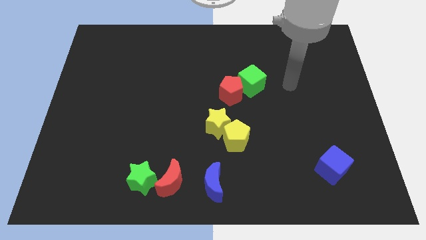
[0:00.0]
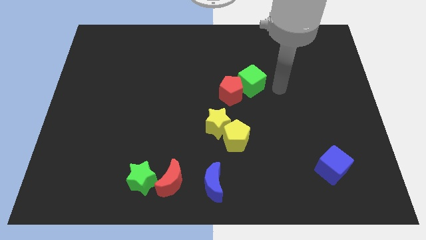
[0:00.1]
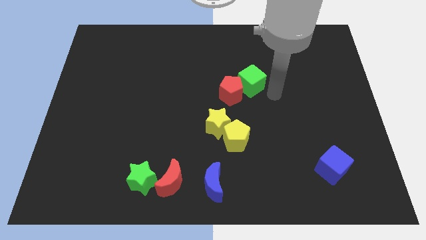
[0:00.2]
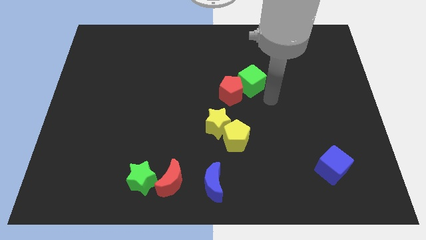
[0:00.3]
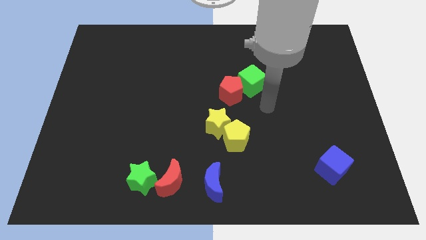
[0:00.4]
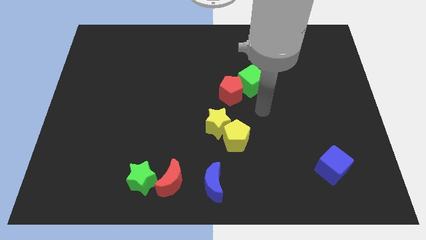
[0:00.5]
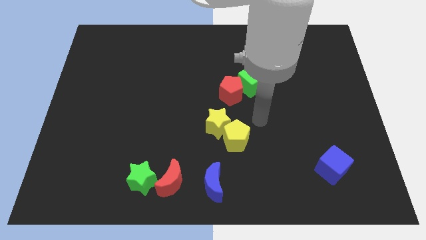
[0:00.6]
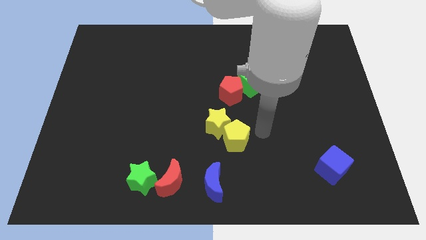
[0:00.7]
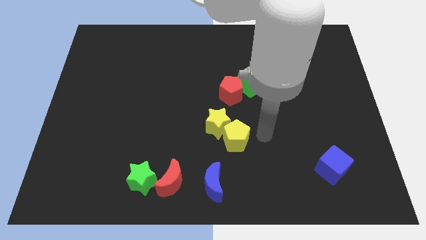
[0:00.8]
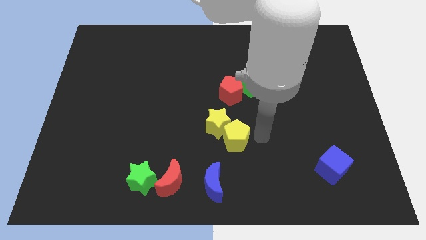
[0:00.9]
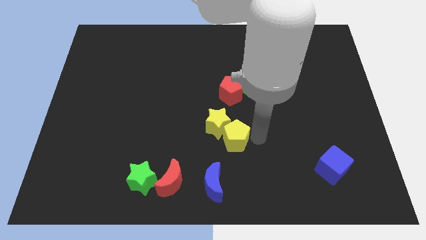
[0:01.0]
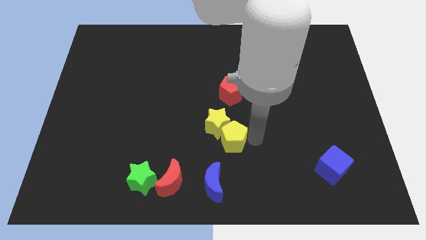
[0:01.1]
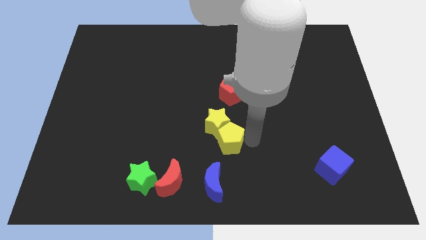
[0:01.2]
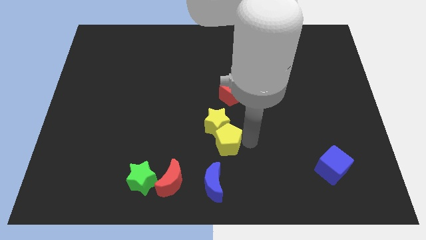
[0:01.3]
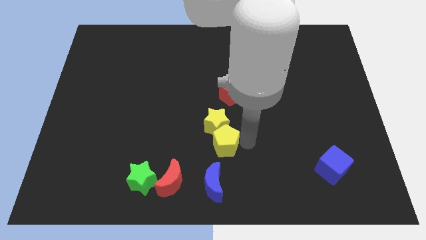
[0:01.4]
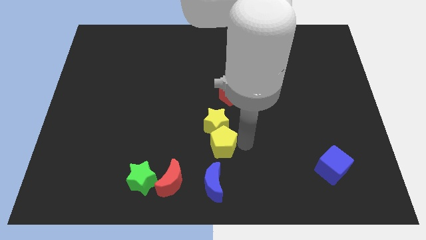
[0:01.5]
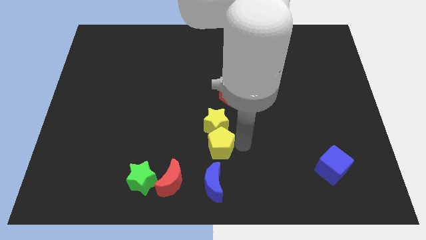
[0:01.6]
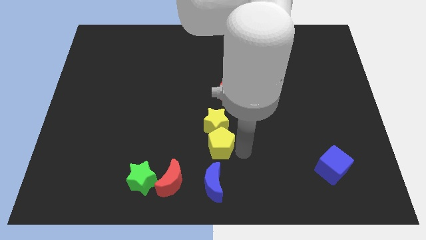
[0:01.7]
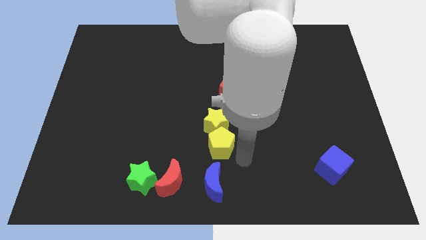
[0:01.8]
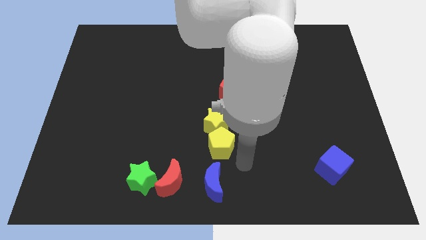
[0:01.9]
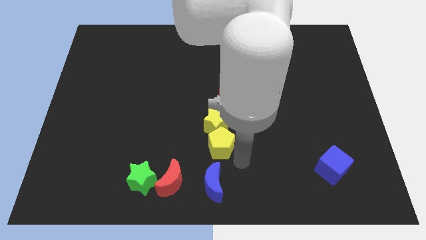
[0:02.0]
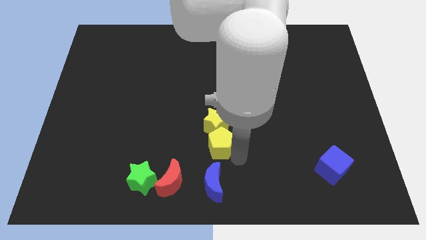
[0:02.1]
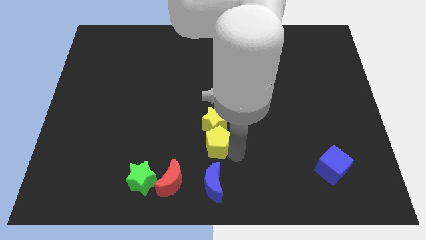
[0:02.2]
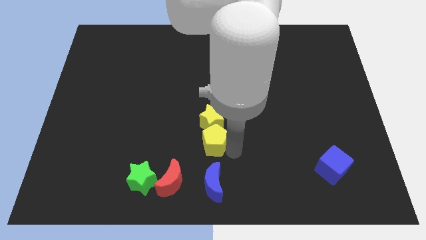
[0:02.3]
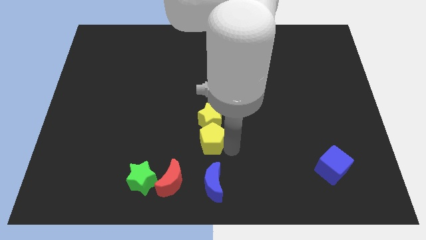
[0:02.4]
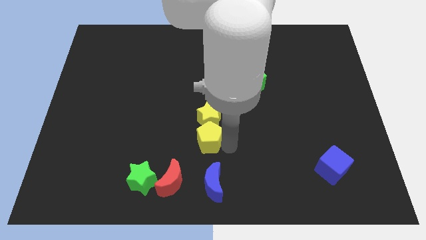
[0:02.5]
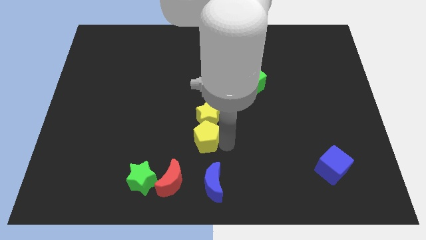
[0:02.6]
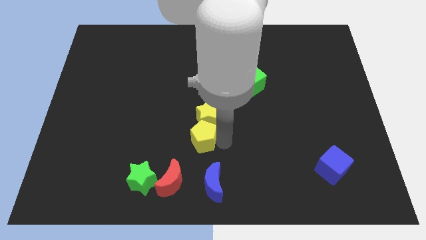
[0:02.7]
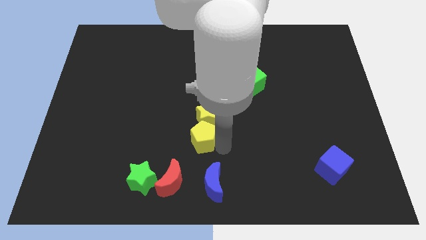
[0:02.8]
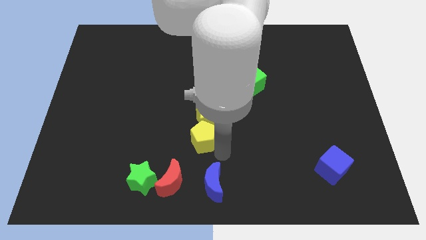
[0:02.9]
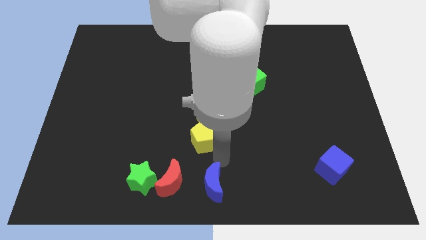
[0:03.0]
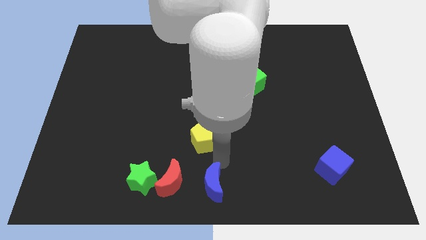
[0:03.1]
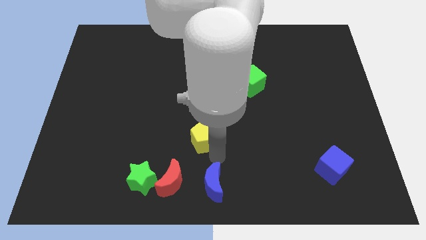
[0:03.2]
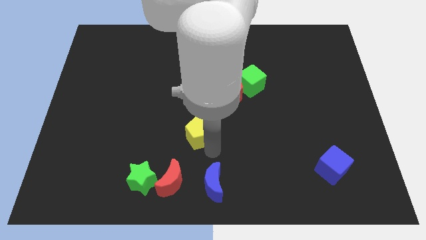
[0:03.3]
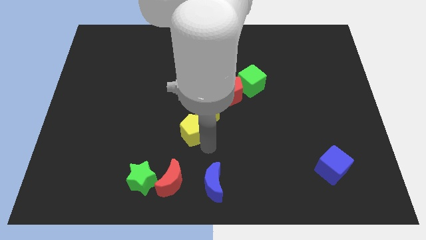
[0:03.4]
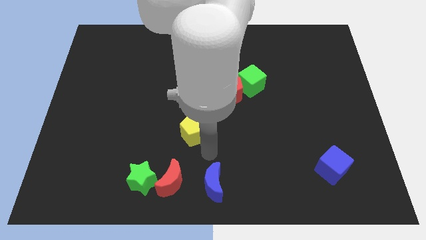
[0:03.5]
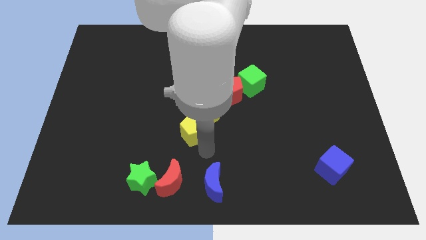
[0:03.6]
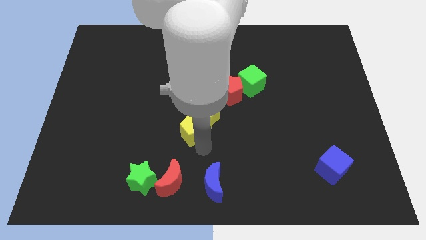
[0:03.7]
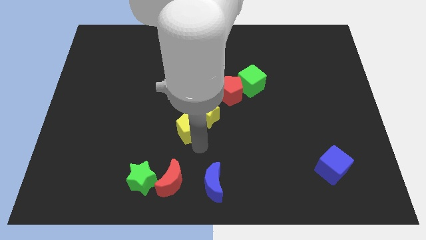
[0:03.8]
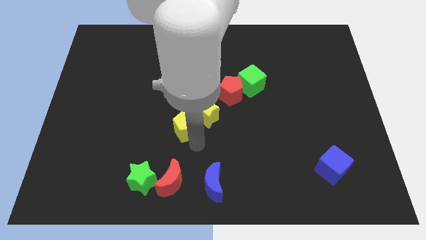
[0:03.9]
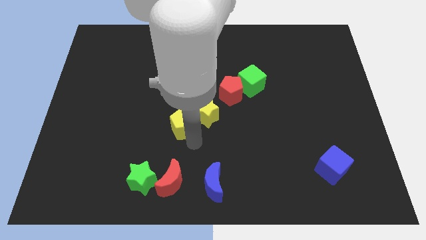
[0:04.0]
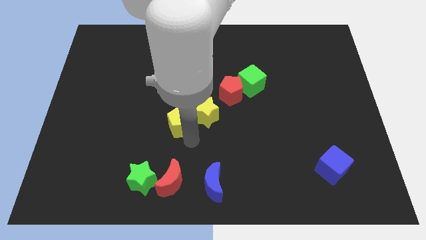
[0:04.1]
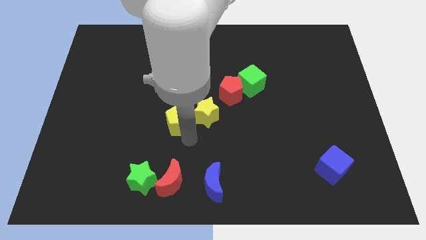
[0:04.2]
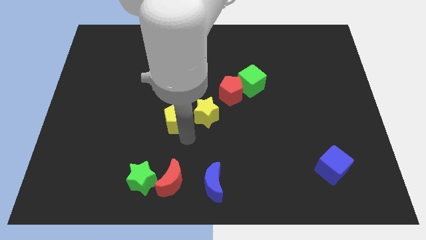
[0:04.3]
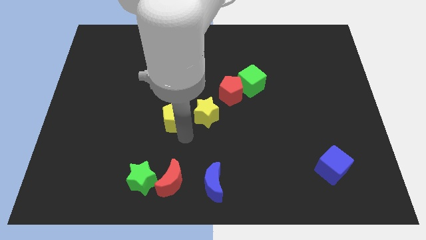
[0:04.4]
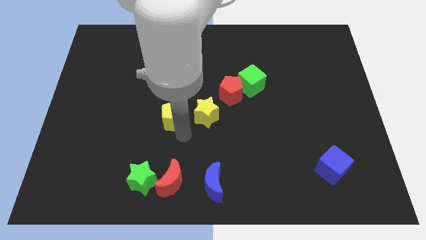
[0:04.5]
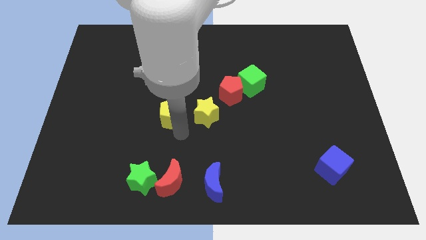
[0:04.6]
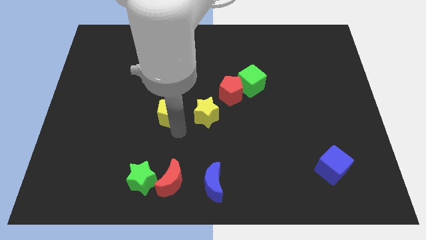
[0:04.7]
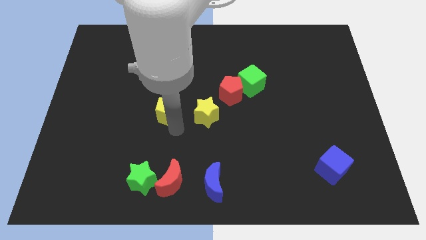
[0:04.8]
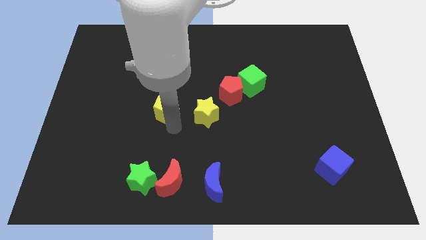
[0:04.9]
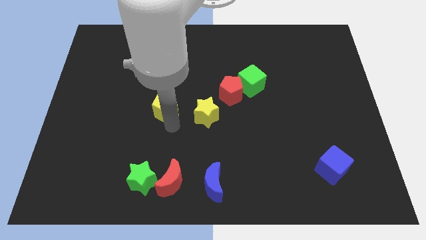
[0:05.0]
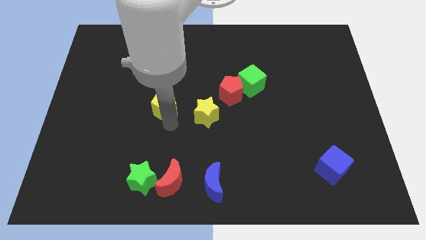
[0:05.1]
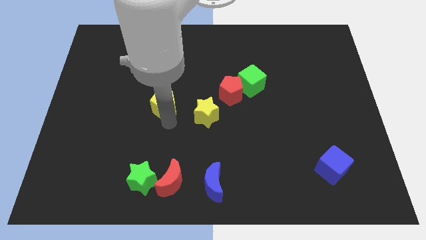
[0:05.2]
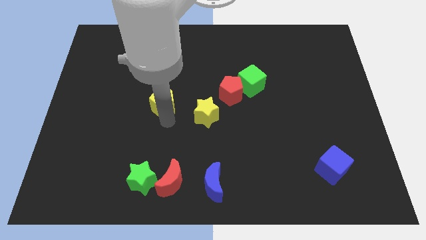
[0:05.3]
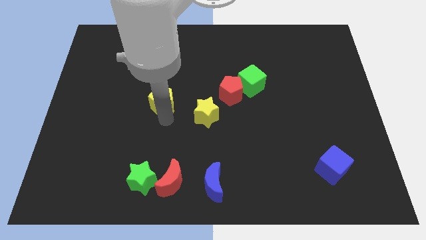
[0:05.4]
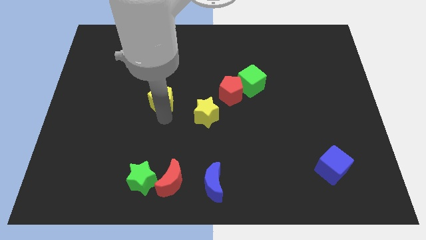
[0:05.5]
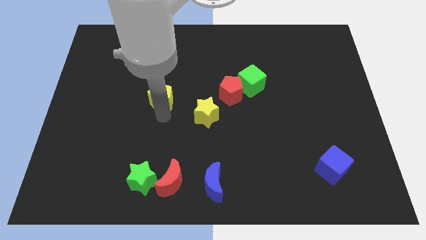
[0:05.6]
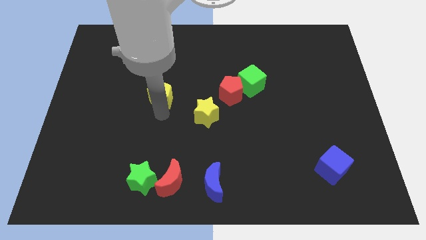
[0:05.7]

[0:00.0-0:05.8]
slide the yellow pentagon diagonally upwards and left

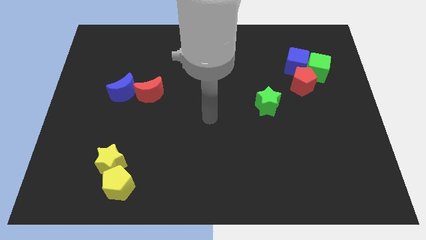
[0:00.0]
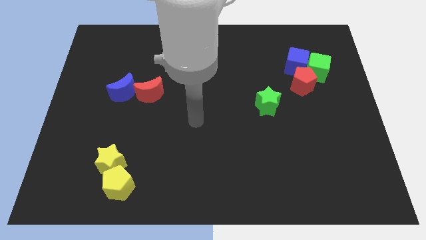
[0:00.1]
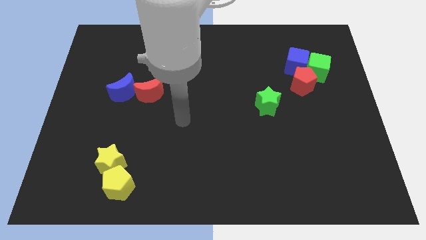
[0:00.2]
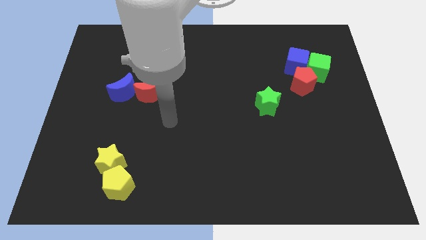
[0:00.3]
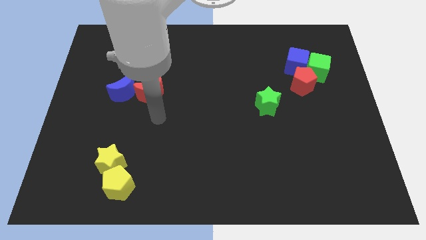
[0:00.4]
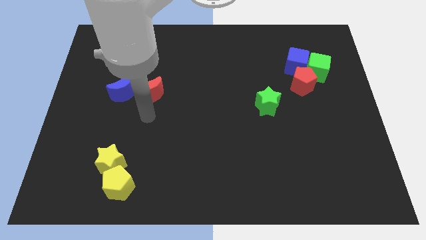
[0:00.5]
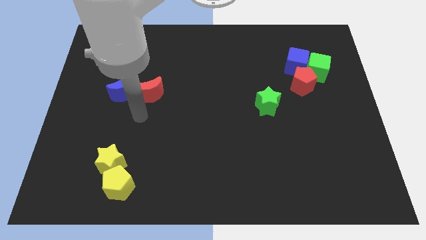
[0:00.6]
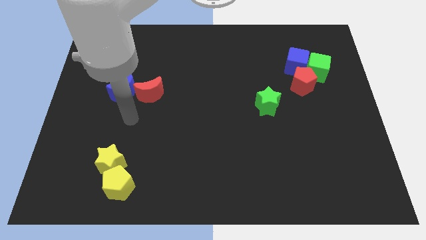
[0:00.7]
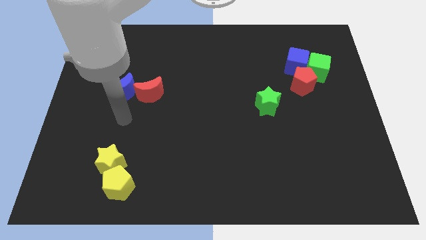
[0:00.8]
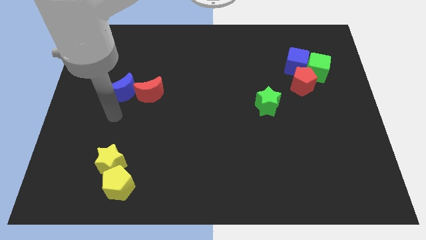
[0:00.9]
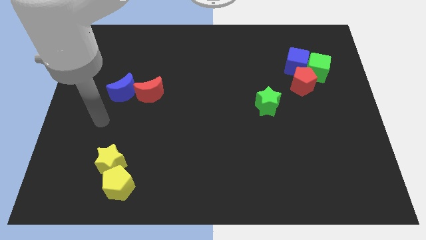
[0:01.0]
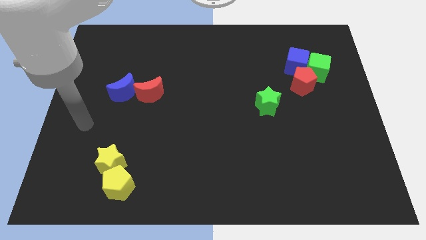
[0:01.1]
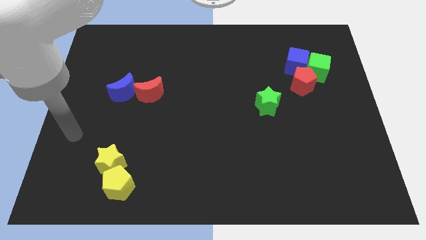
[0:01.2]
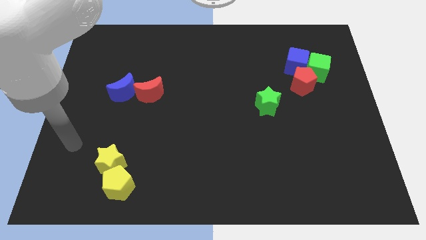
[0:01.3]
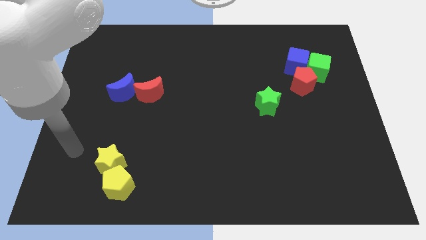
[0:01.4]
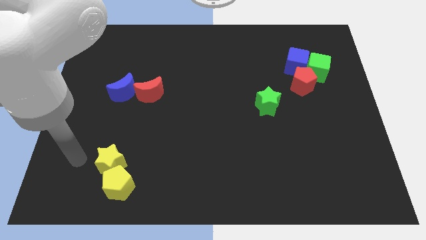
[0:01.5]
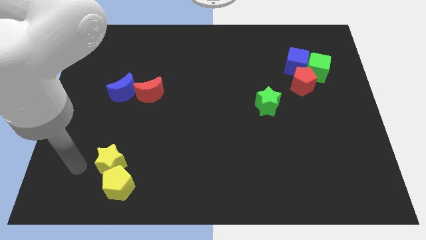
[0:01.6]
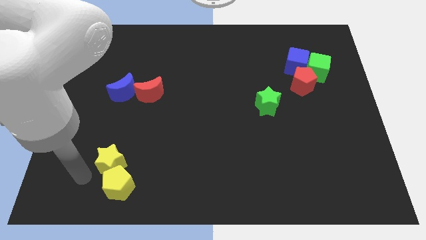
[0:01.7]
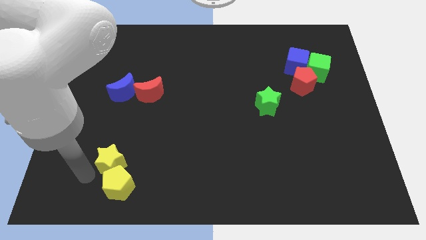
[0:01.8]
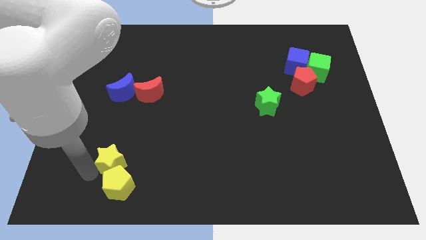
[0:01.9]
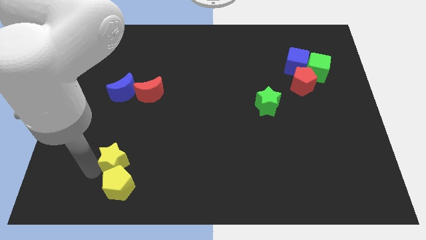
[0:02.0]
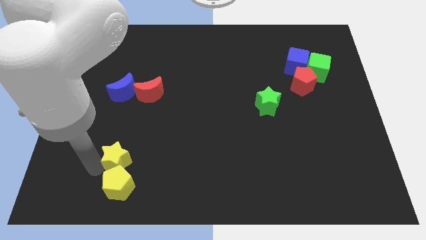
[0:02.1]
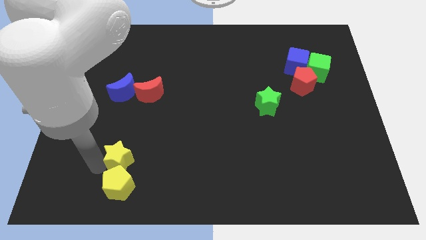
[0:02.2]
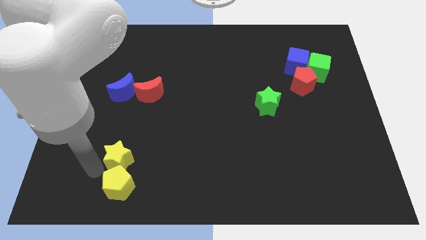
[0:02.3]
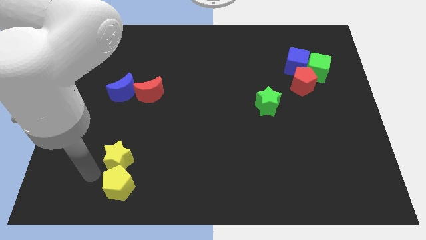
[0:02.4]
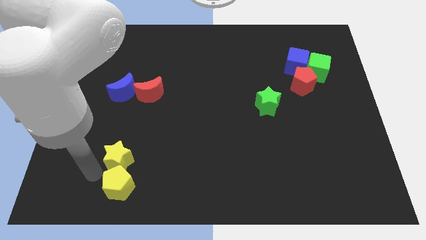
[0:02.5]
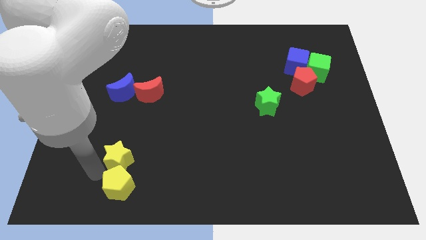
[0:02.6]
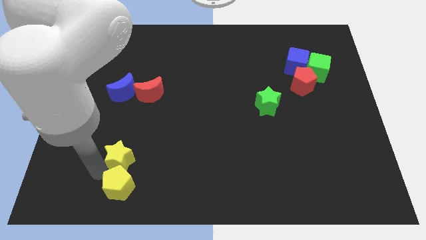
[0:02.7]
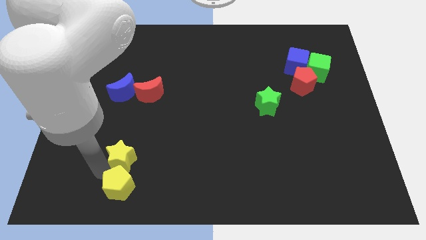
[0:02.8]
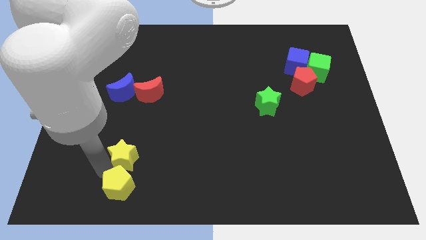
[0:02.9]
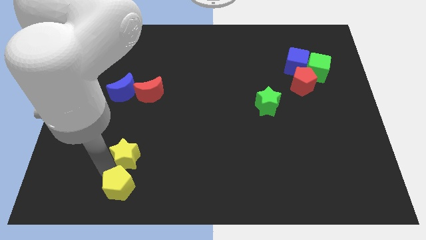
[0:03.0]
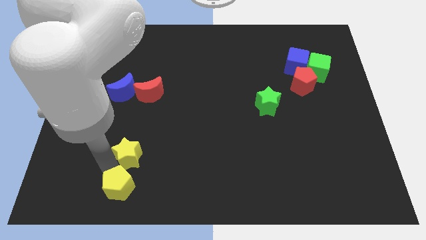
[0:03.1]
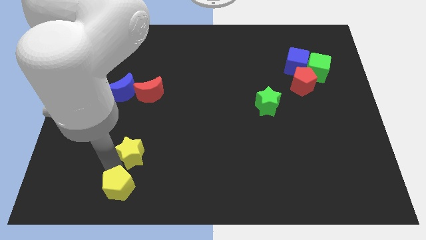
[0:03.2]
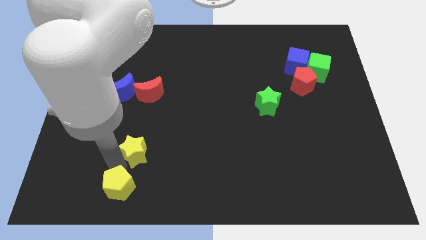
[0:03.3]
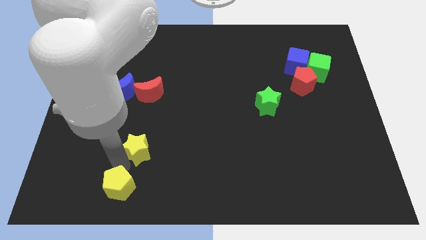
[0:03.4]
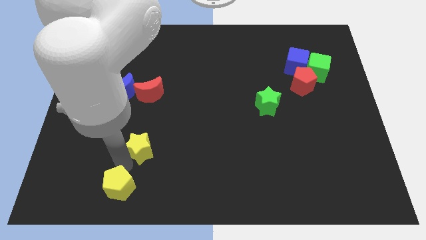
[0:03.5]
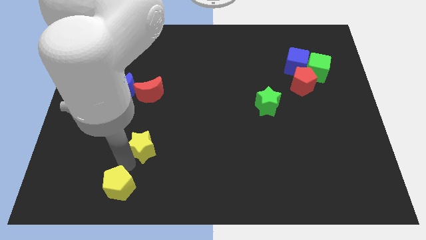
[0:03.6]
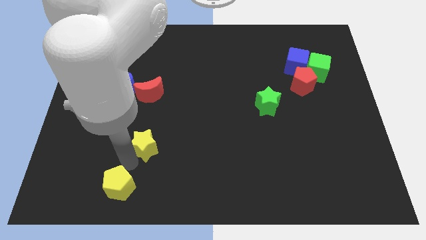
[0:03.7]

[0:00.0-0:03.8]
push the yellow star up and right slightly
